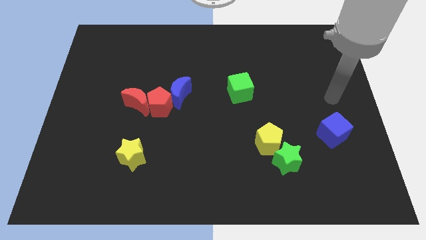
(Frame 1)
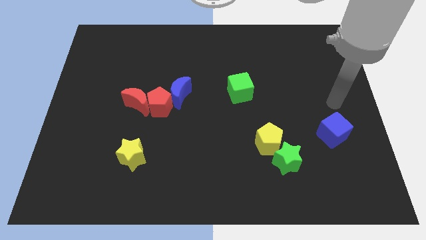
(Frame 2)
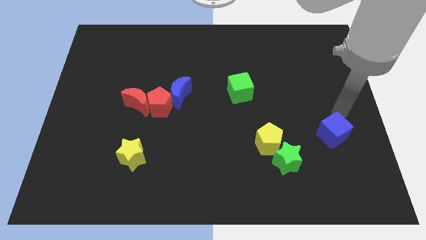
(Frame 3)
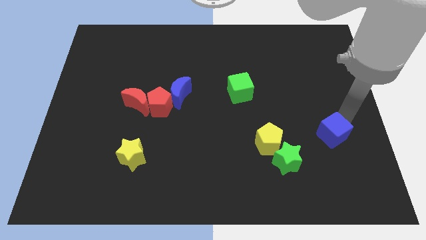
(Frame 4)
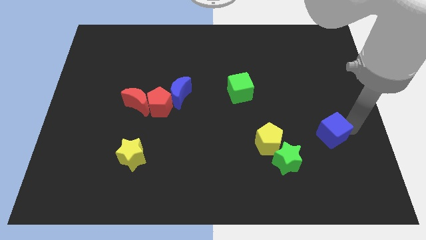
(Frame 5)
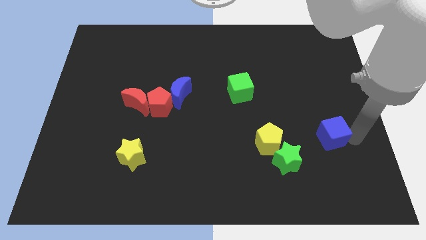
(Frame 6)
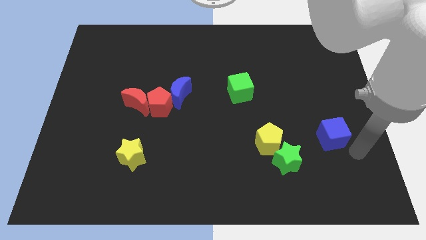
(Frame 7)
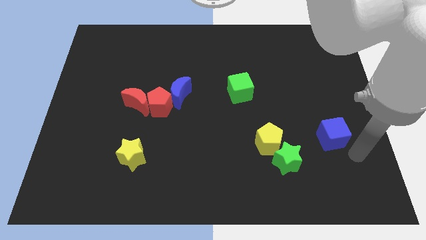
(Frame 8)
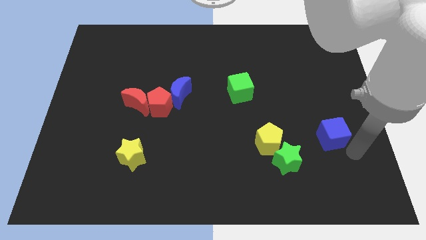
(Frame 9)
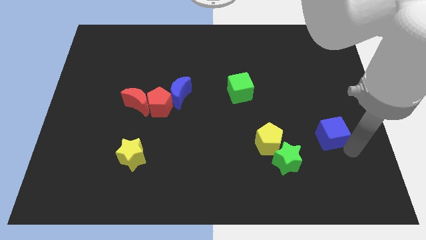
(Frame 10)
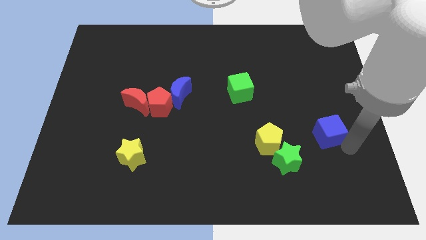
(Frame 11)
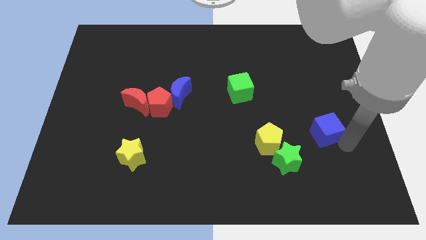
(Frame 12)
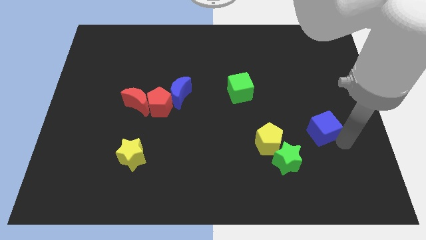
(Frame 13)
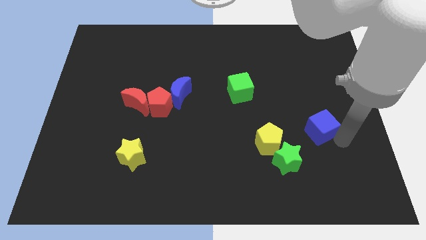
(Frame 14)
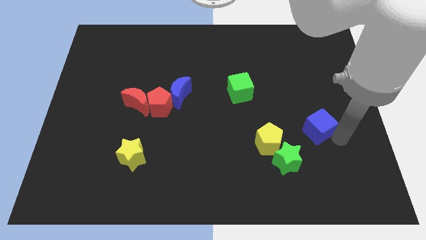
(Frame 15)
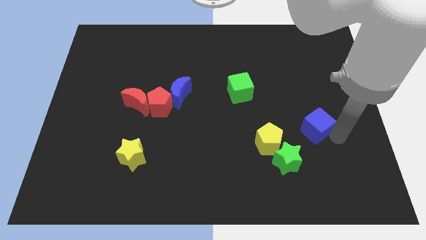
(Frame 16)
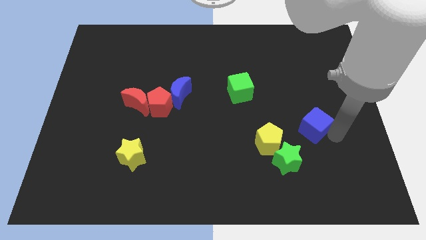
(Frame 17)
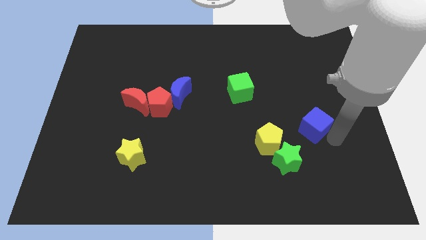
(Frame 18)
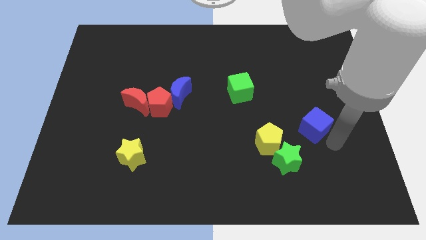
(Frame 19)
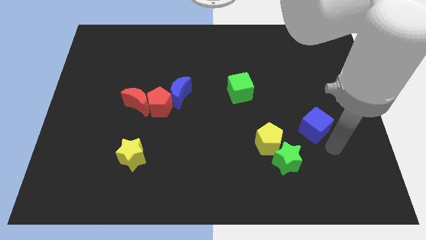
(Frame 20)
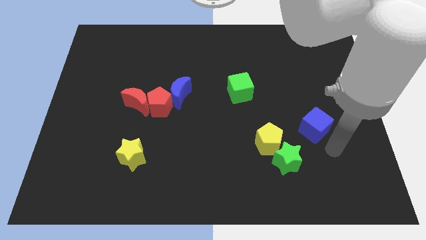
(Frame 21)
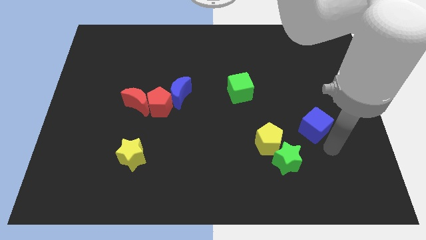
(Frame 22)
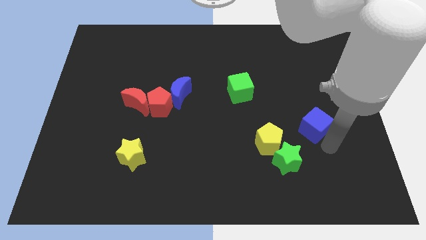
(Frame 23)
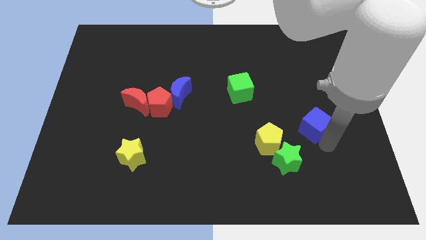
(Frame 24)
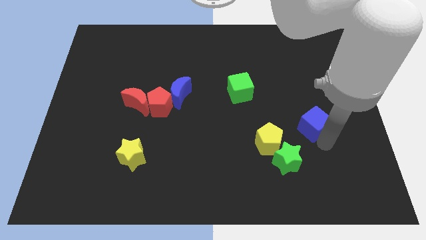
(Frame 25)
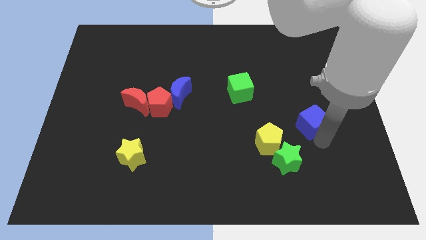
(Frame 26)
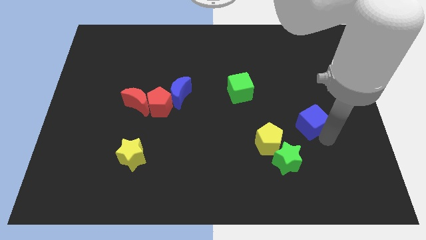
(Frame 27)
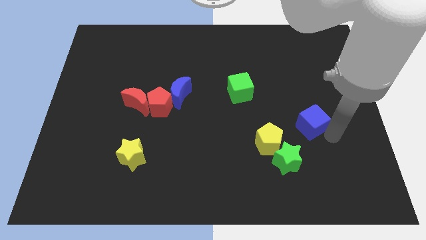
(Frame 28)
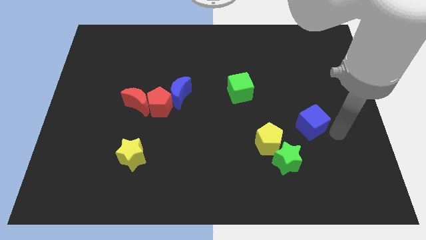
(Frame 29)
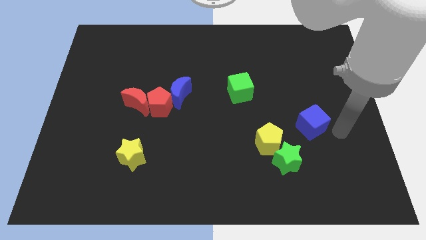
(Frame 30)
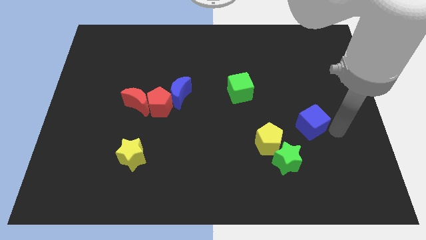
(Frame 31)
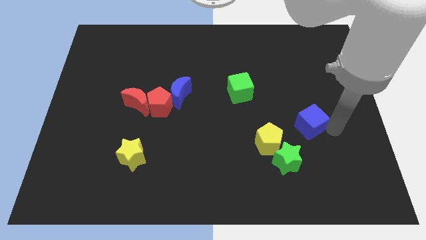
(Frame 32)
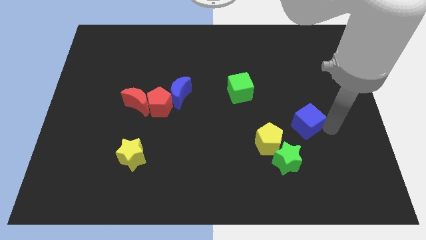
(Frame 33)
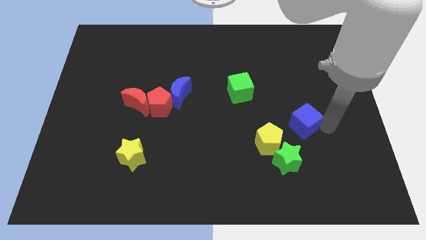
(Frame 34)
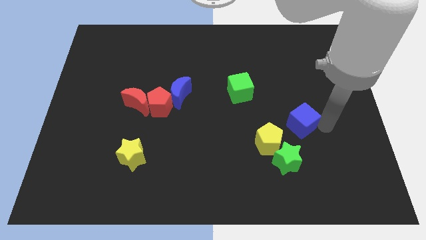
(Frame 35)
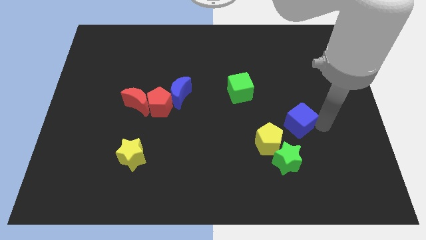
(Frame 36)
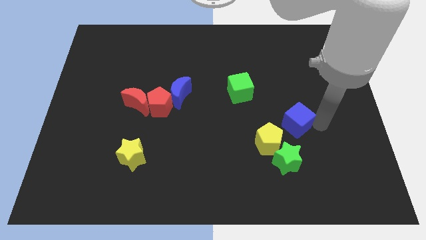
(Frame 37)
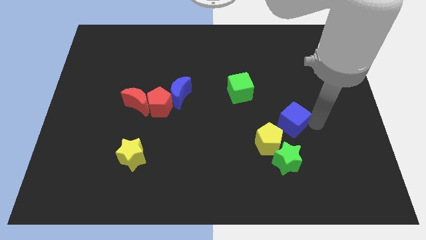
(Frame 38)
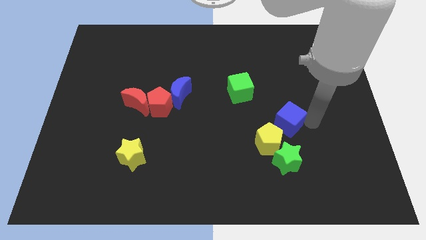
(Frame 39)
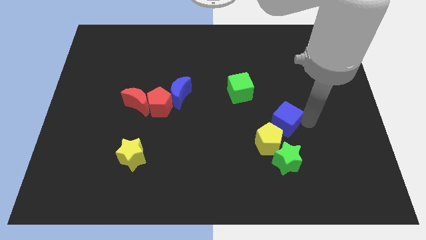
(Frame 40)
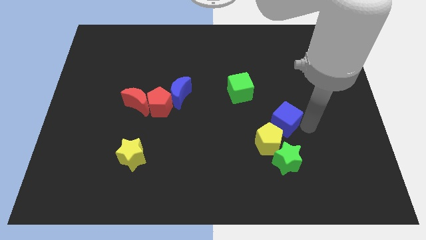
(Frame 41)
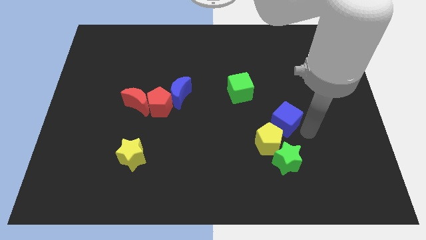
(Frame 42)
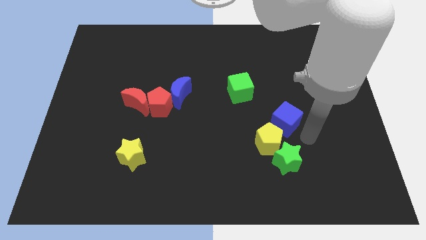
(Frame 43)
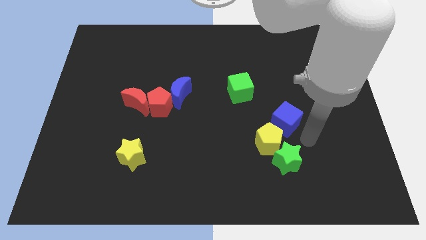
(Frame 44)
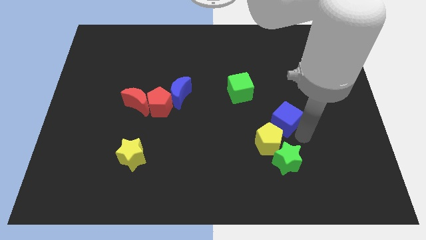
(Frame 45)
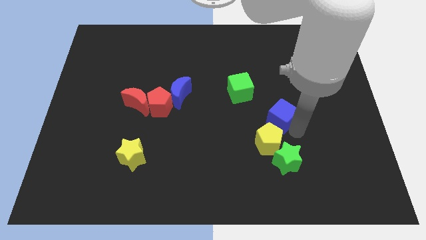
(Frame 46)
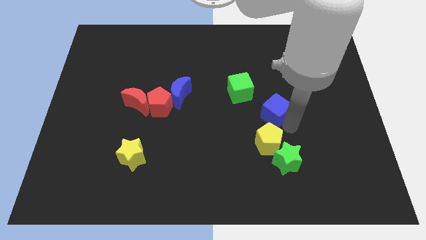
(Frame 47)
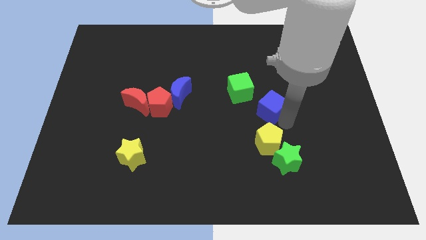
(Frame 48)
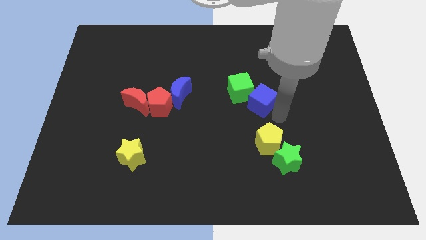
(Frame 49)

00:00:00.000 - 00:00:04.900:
push the blue cube to the green cube

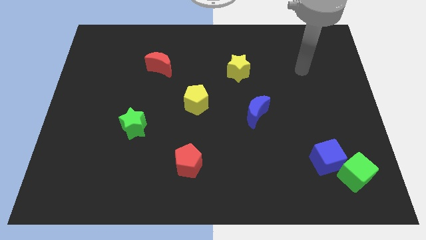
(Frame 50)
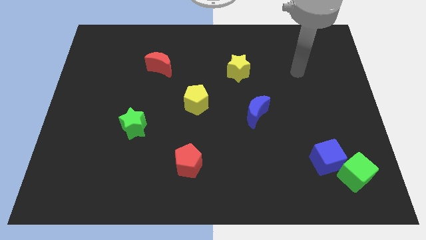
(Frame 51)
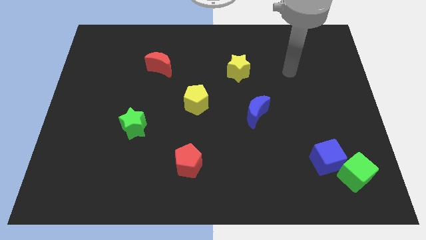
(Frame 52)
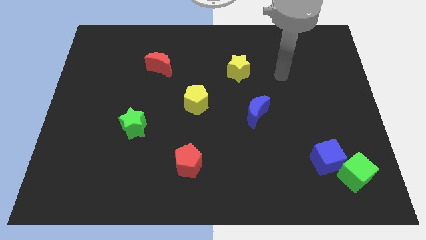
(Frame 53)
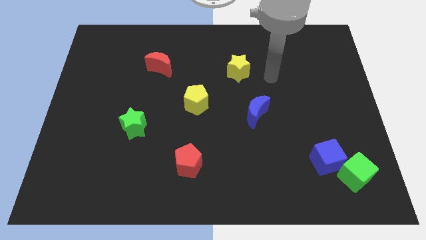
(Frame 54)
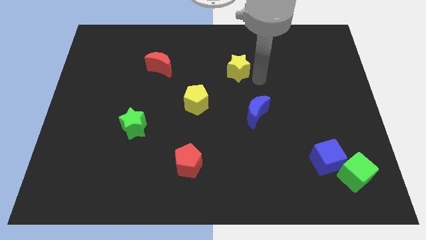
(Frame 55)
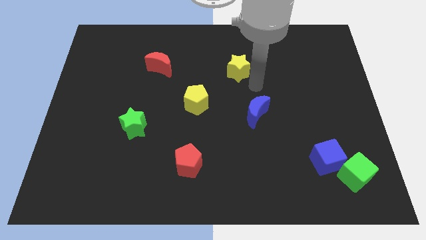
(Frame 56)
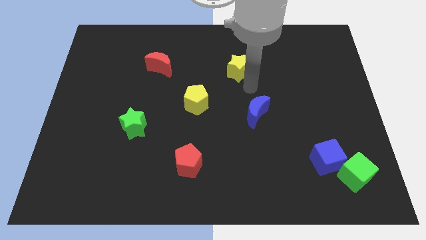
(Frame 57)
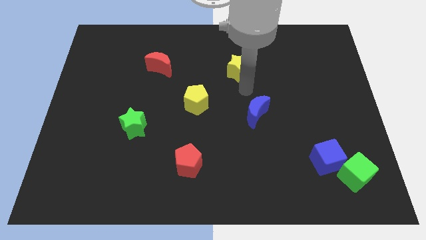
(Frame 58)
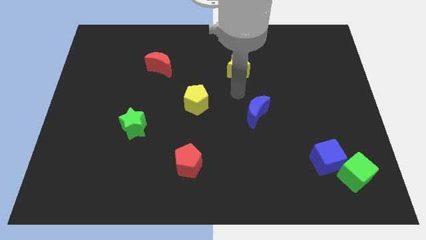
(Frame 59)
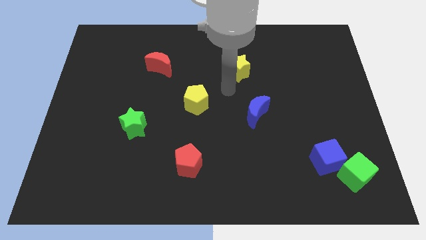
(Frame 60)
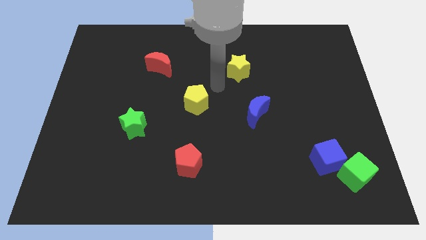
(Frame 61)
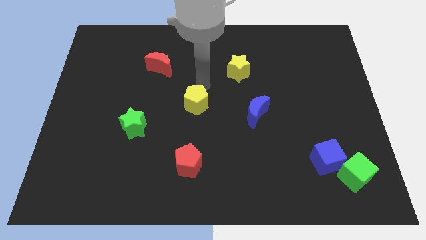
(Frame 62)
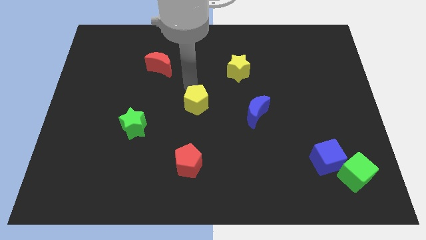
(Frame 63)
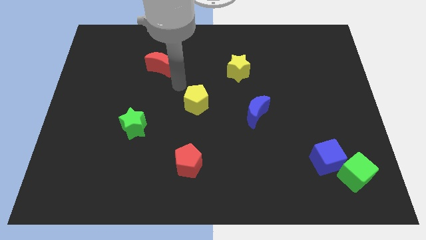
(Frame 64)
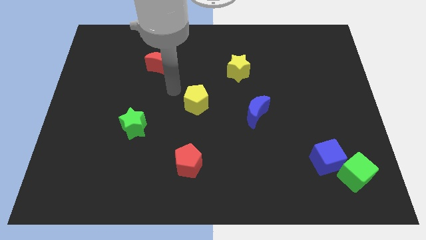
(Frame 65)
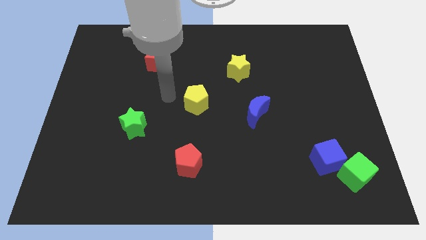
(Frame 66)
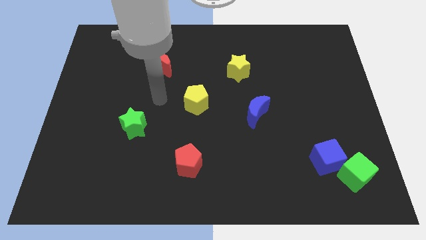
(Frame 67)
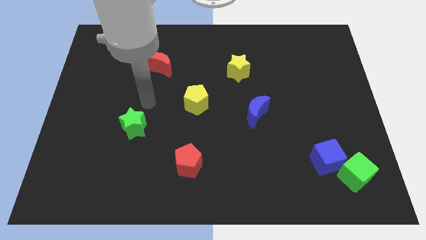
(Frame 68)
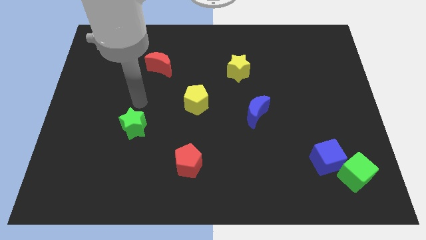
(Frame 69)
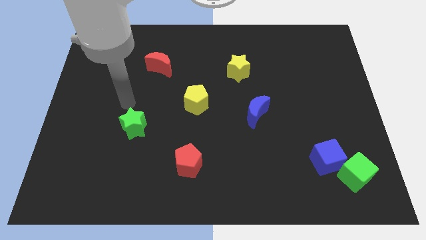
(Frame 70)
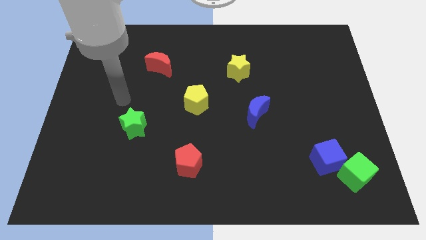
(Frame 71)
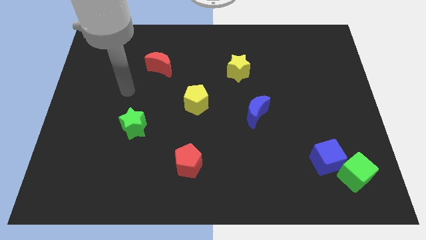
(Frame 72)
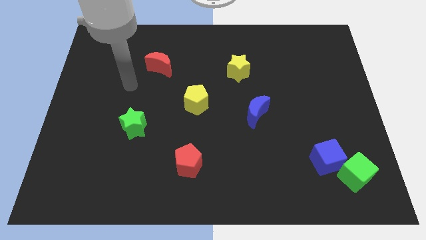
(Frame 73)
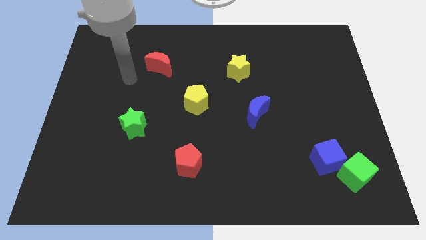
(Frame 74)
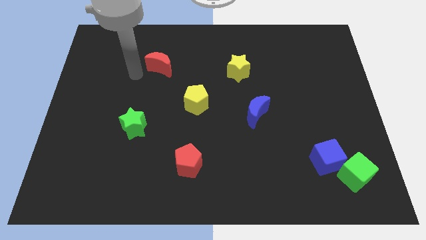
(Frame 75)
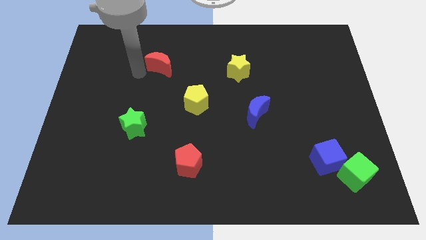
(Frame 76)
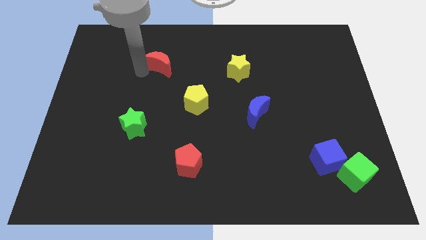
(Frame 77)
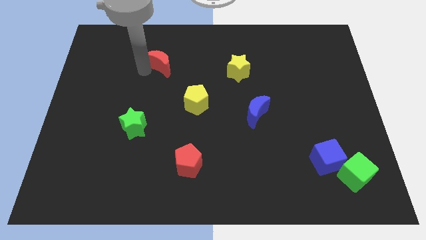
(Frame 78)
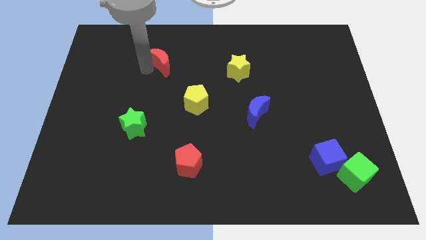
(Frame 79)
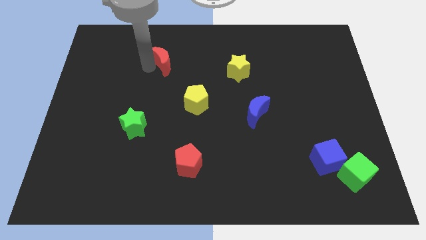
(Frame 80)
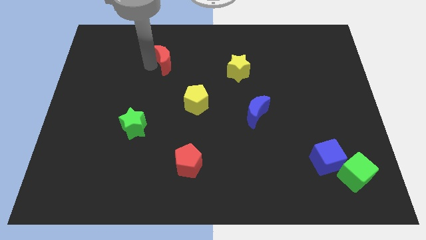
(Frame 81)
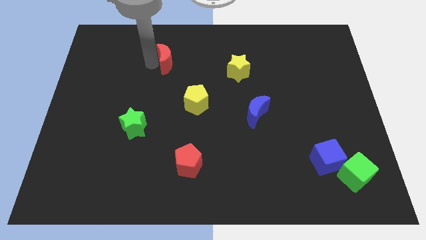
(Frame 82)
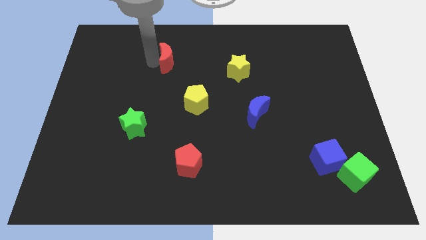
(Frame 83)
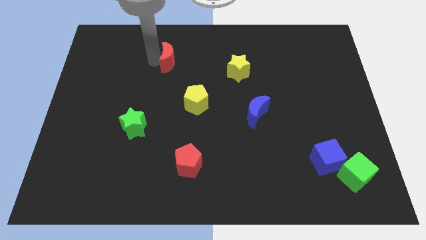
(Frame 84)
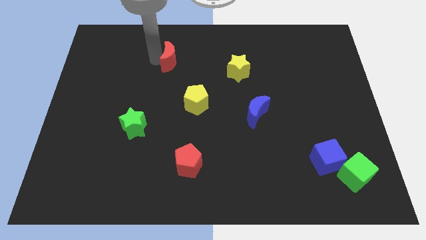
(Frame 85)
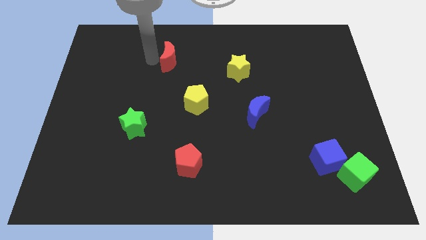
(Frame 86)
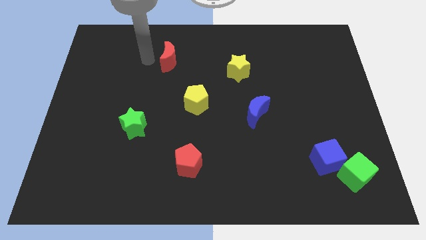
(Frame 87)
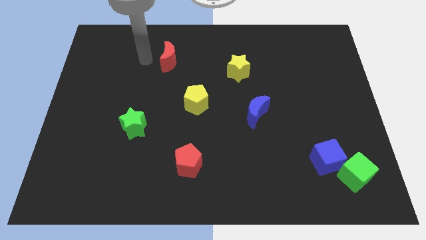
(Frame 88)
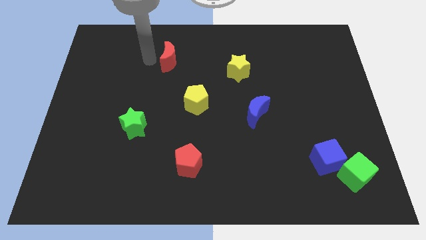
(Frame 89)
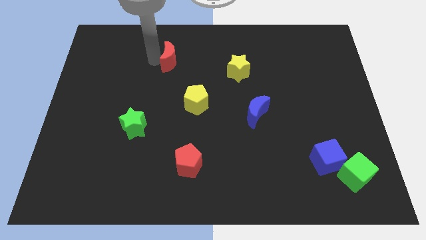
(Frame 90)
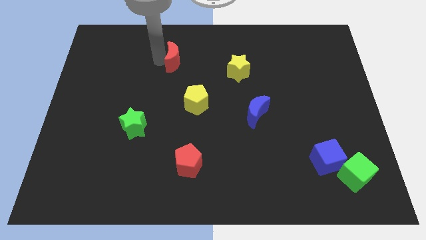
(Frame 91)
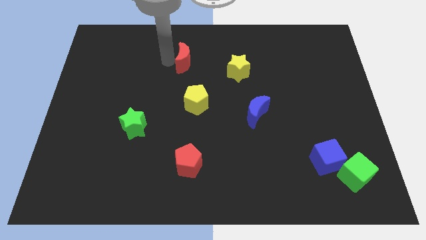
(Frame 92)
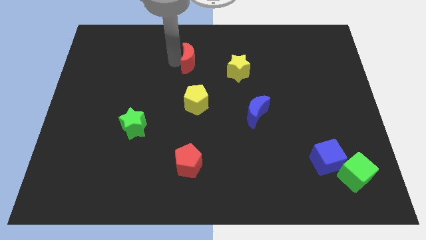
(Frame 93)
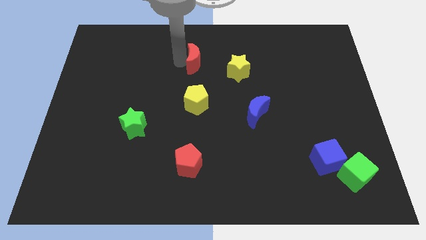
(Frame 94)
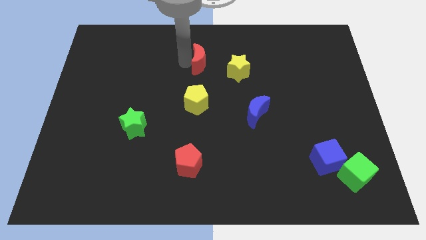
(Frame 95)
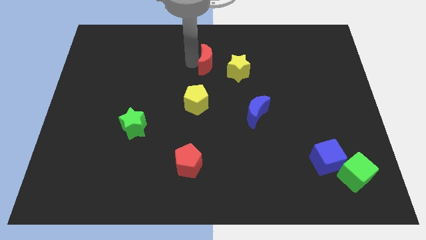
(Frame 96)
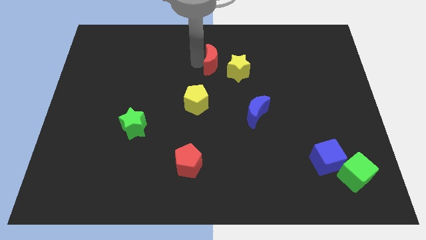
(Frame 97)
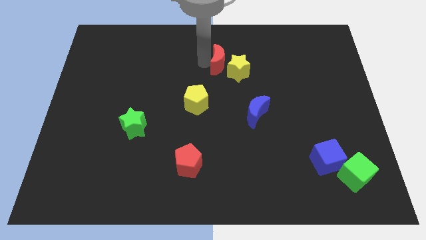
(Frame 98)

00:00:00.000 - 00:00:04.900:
put the red moon close to the yellow star
